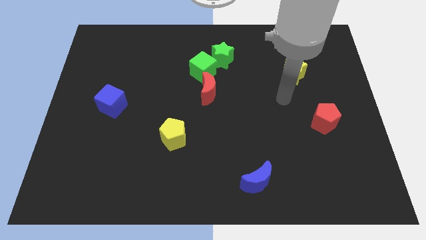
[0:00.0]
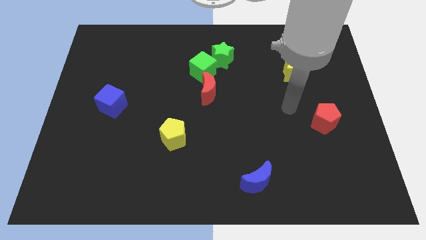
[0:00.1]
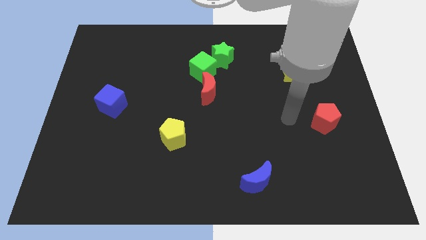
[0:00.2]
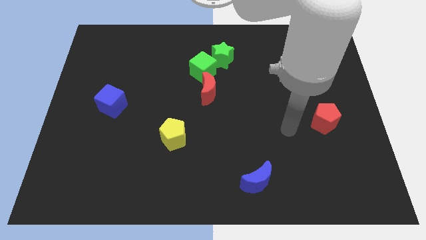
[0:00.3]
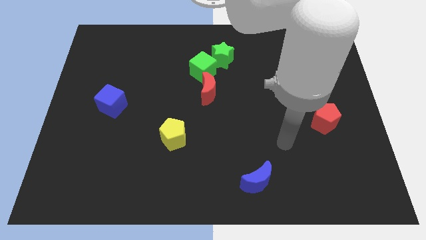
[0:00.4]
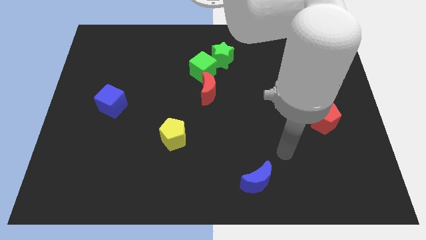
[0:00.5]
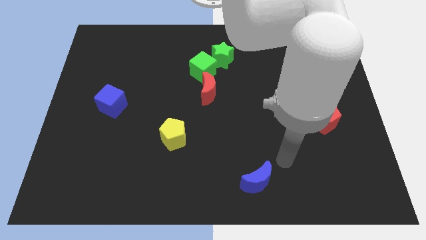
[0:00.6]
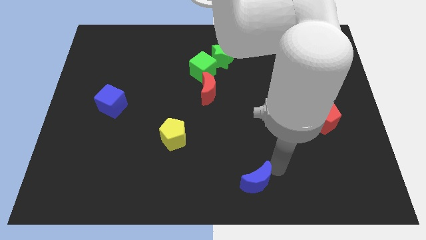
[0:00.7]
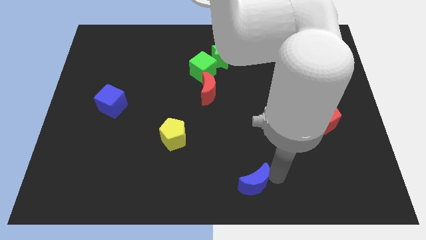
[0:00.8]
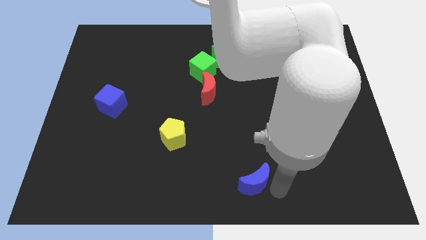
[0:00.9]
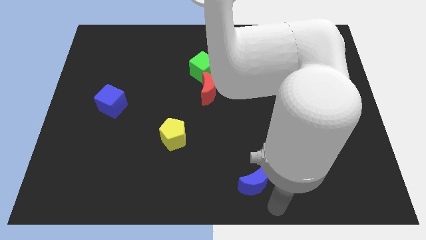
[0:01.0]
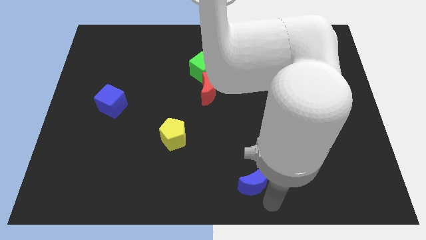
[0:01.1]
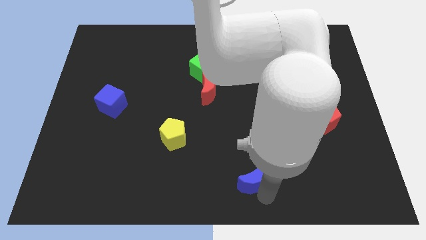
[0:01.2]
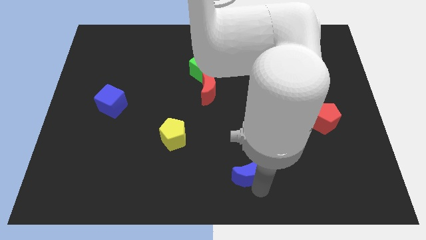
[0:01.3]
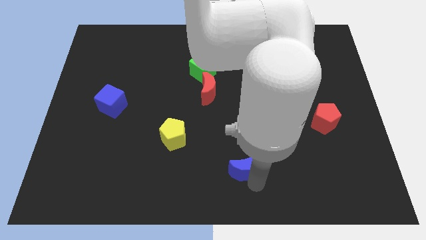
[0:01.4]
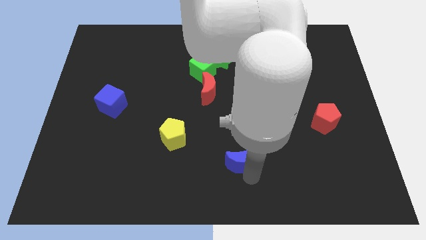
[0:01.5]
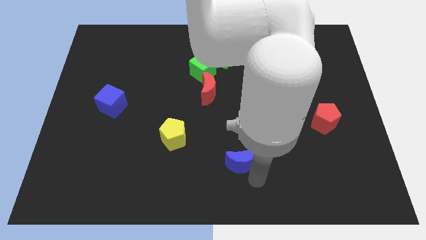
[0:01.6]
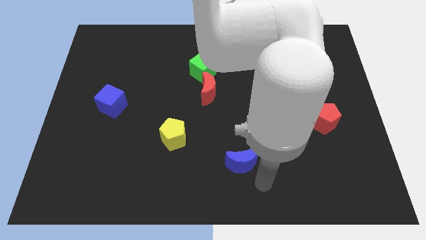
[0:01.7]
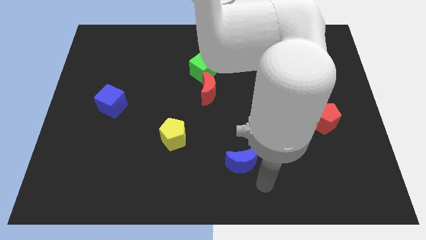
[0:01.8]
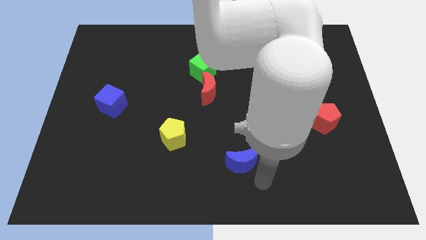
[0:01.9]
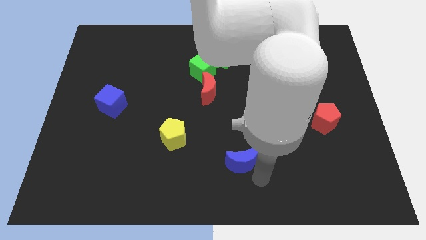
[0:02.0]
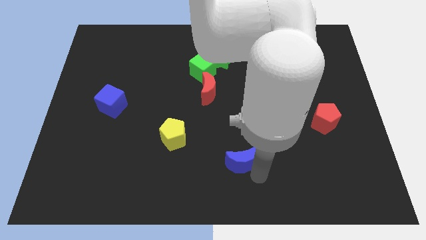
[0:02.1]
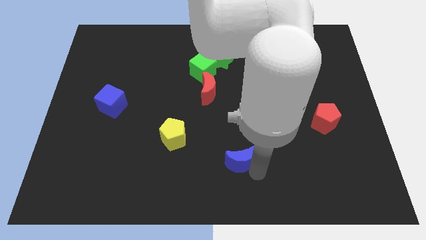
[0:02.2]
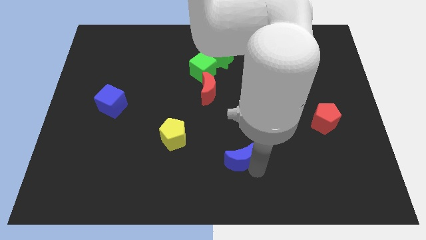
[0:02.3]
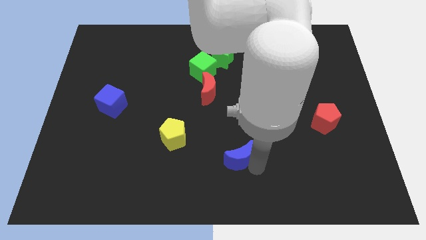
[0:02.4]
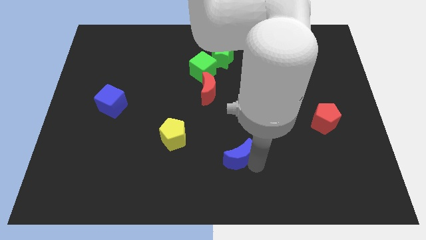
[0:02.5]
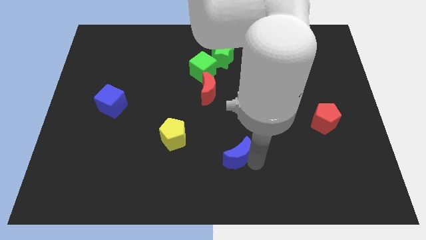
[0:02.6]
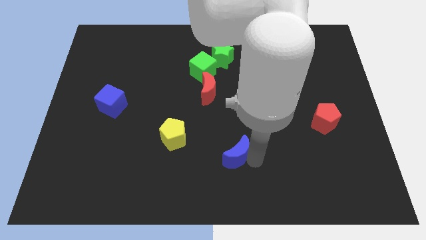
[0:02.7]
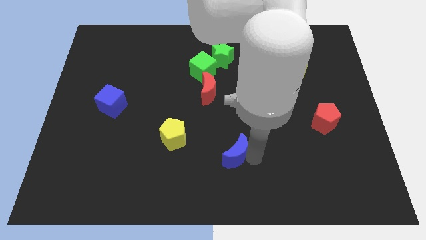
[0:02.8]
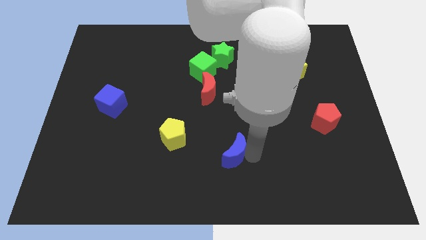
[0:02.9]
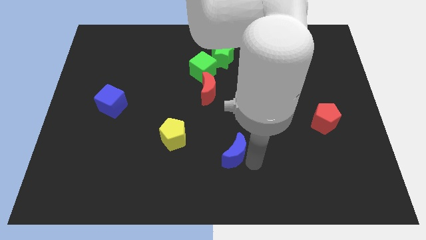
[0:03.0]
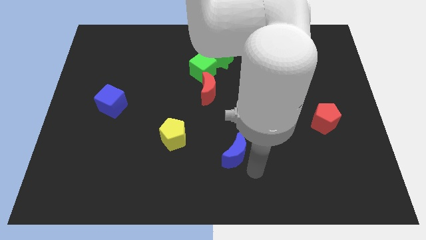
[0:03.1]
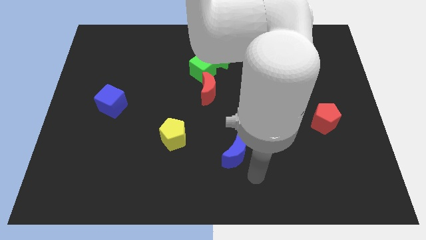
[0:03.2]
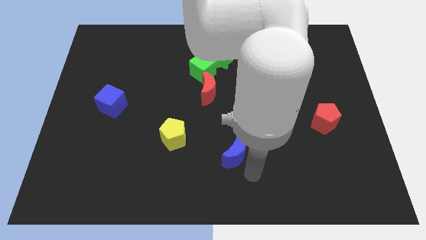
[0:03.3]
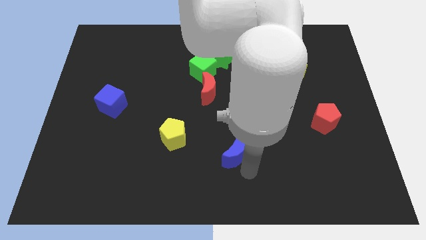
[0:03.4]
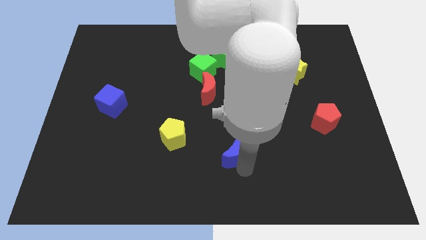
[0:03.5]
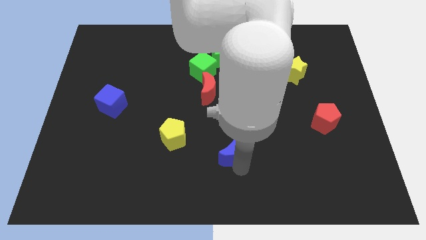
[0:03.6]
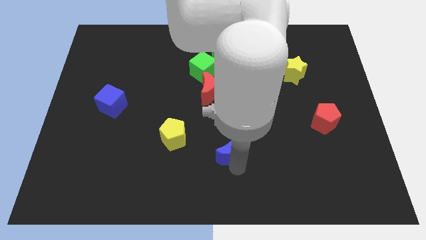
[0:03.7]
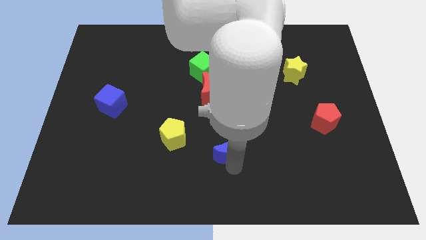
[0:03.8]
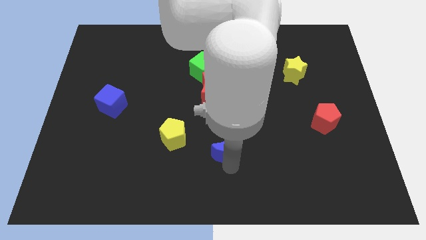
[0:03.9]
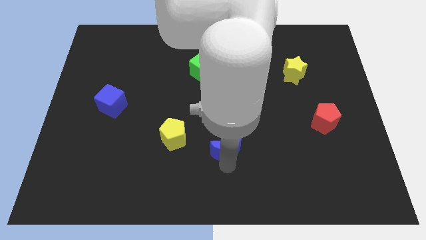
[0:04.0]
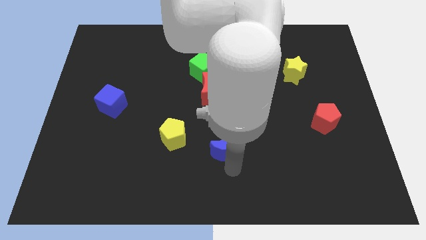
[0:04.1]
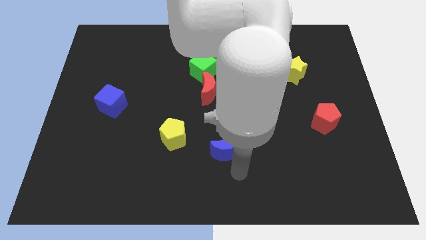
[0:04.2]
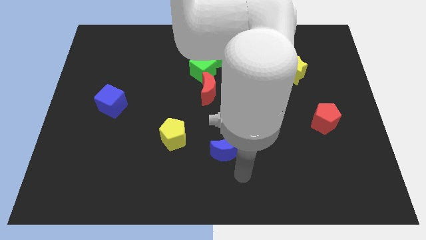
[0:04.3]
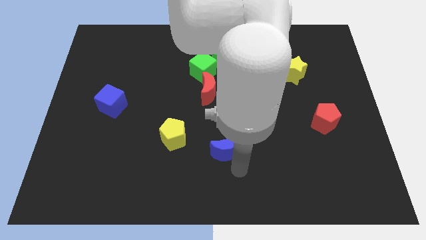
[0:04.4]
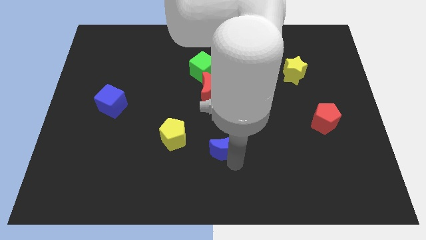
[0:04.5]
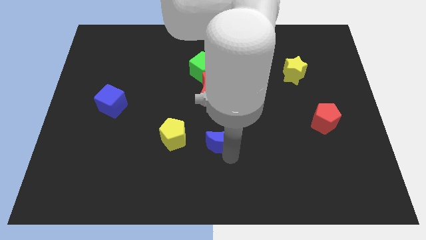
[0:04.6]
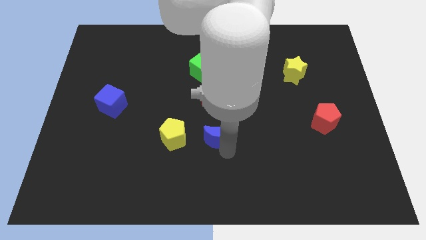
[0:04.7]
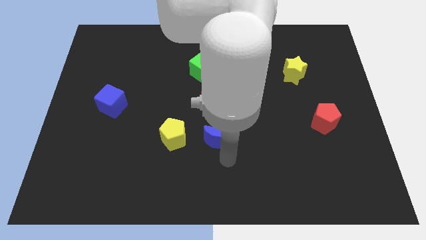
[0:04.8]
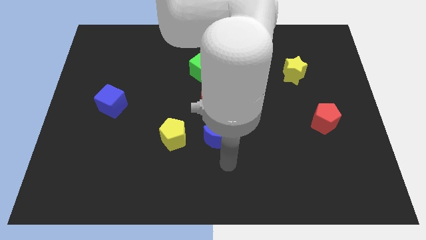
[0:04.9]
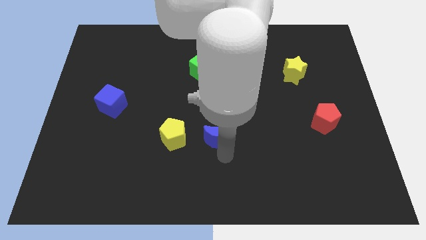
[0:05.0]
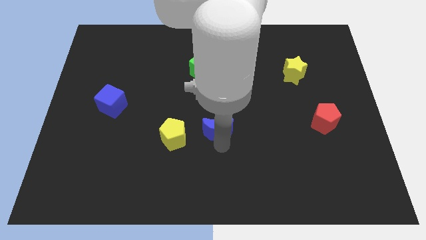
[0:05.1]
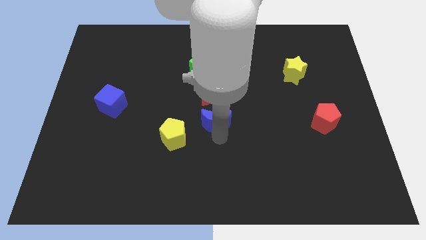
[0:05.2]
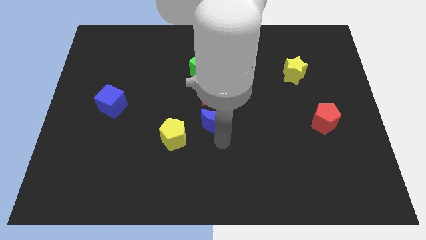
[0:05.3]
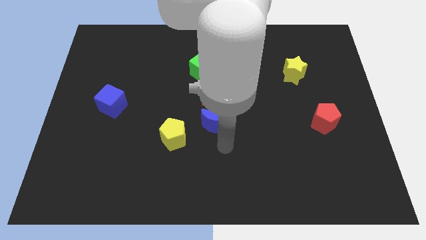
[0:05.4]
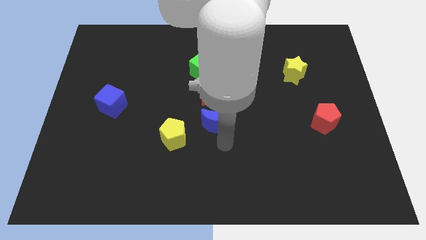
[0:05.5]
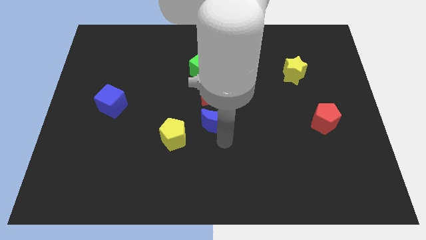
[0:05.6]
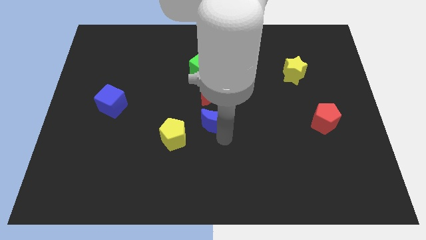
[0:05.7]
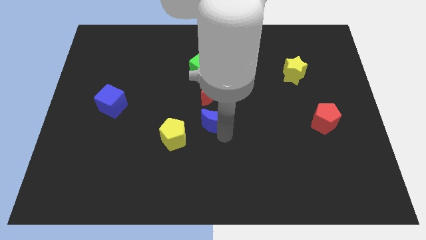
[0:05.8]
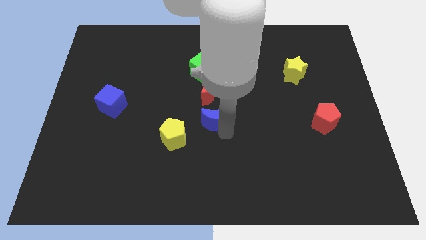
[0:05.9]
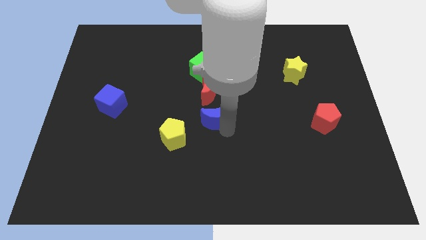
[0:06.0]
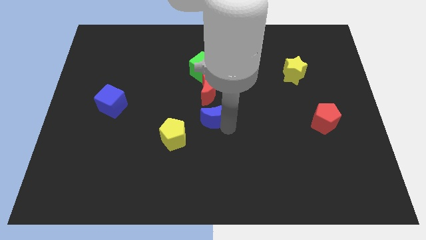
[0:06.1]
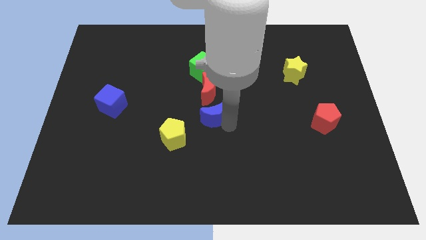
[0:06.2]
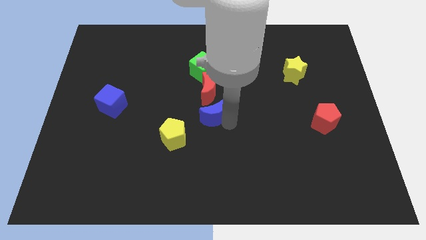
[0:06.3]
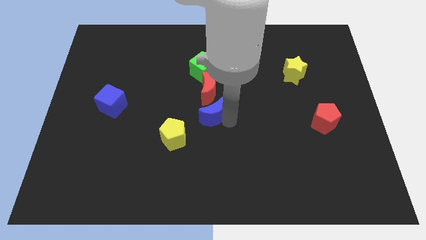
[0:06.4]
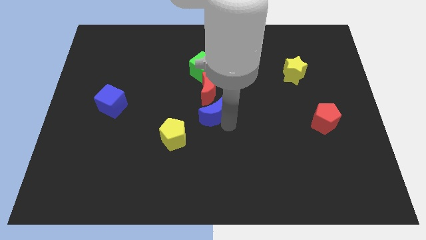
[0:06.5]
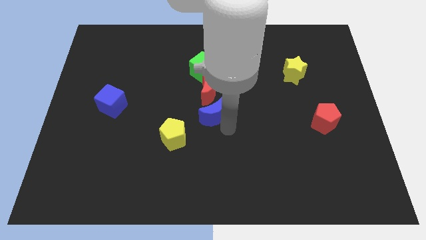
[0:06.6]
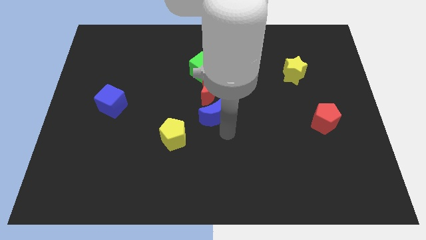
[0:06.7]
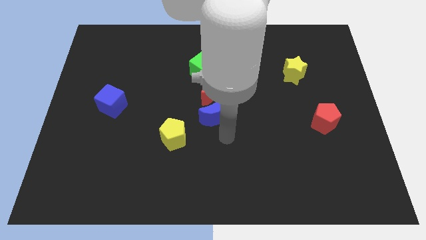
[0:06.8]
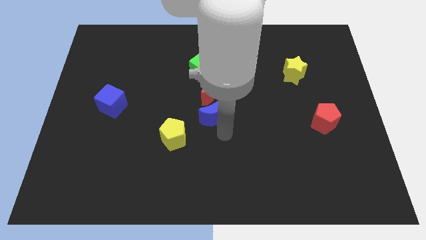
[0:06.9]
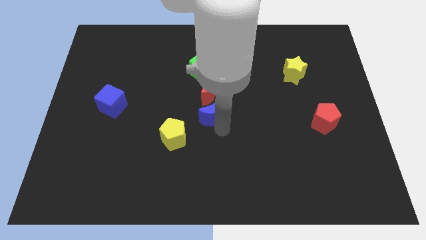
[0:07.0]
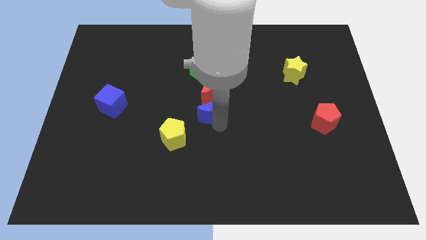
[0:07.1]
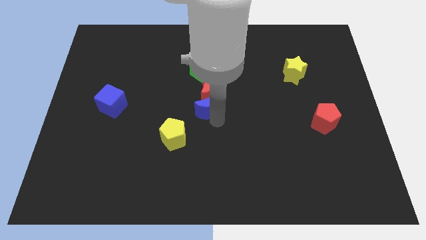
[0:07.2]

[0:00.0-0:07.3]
push the blue moon next to the red moon
